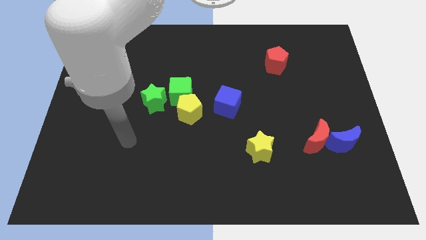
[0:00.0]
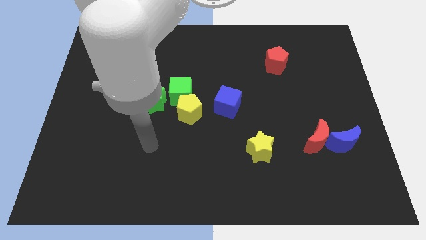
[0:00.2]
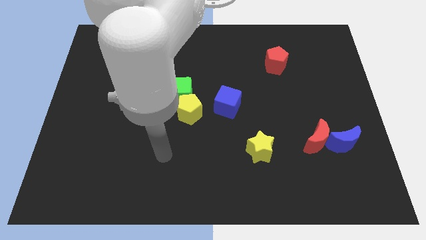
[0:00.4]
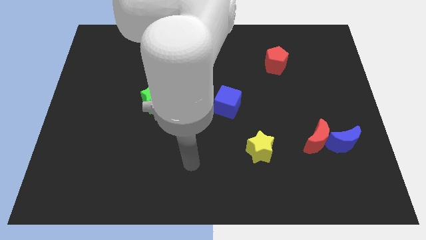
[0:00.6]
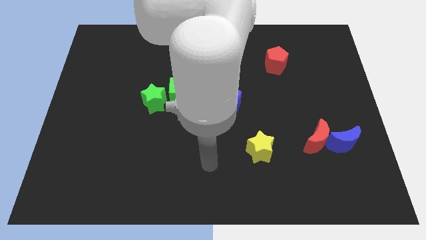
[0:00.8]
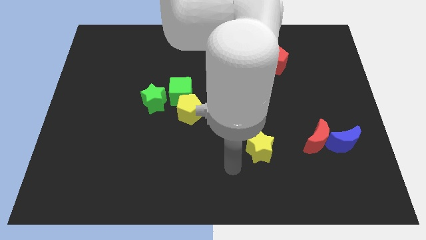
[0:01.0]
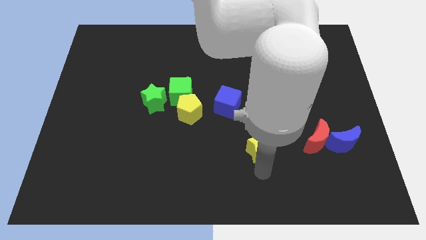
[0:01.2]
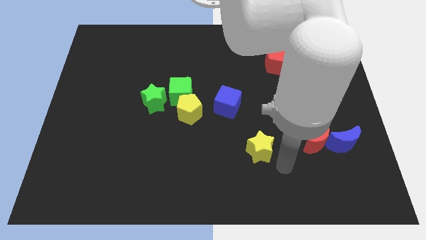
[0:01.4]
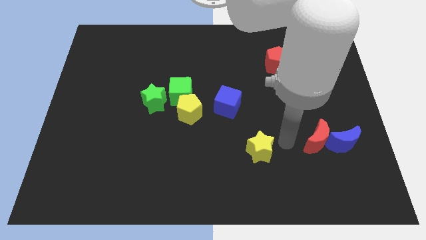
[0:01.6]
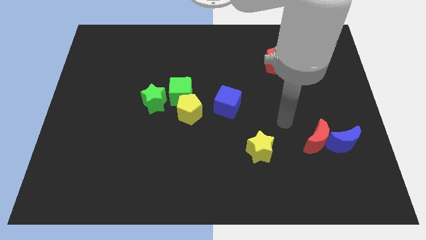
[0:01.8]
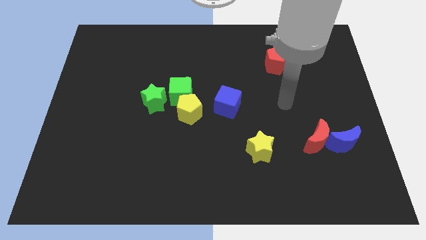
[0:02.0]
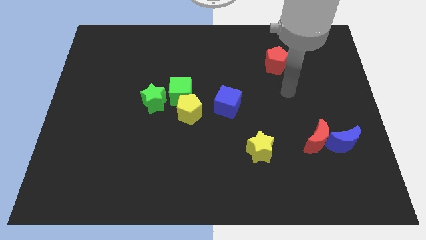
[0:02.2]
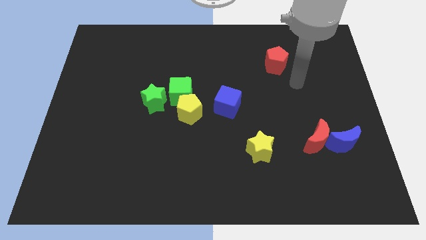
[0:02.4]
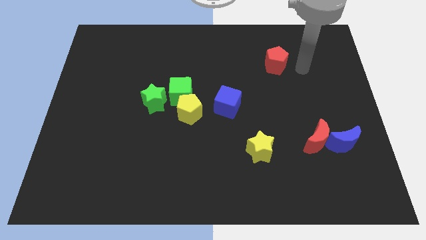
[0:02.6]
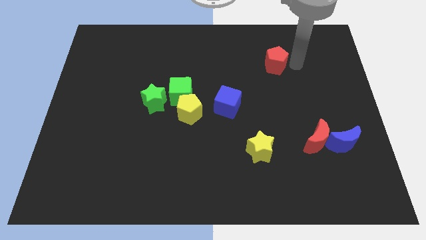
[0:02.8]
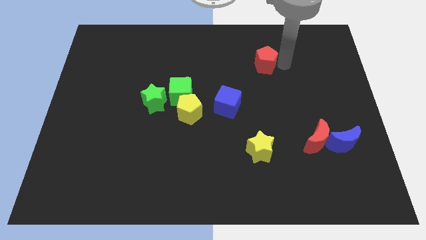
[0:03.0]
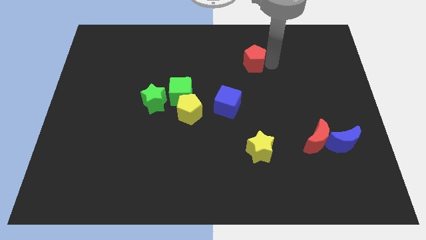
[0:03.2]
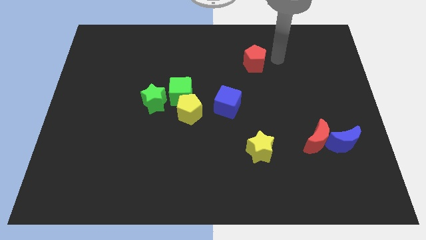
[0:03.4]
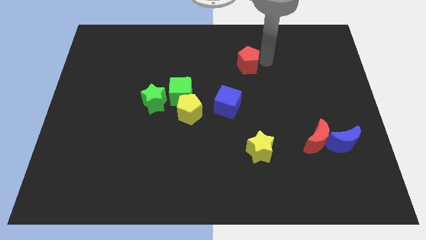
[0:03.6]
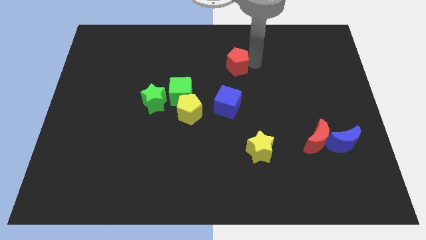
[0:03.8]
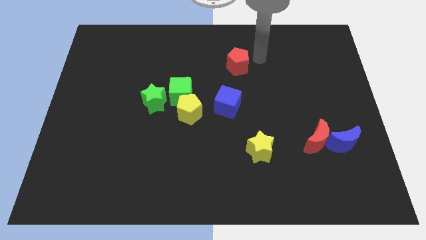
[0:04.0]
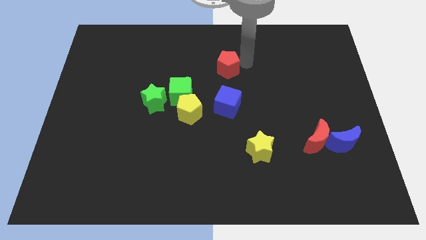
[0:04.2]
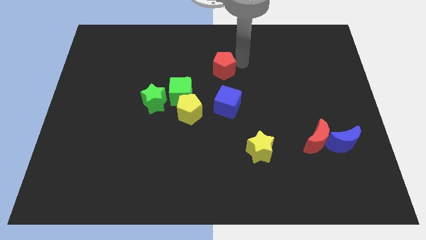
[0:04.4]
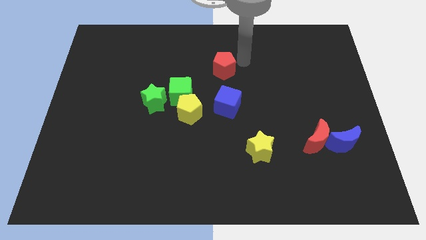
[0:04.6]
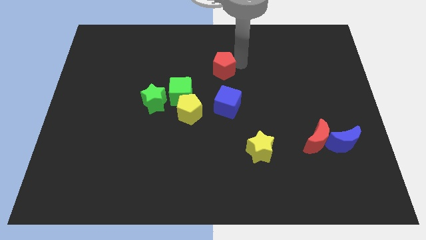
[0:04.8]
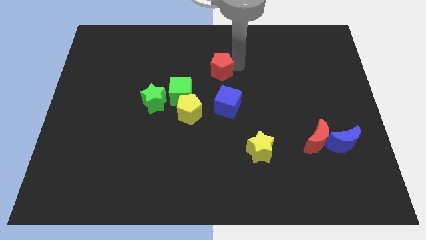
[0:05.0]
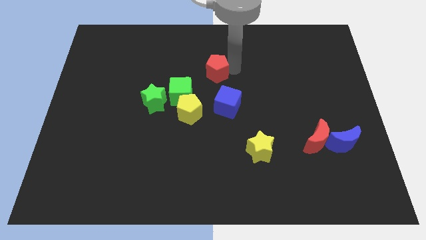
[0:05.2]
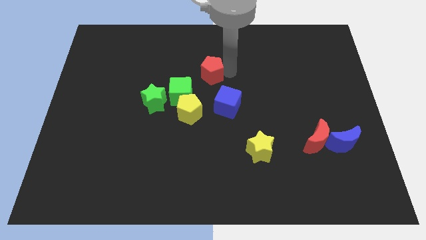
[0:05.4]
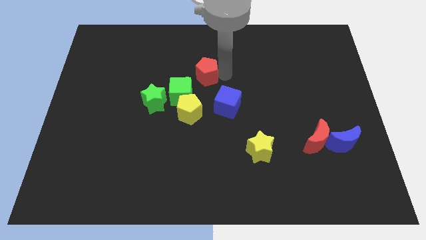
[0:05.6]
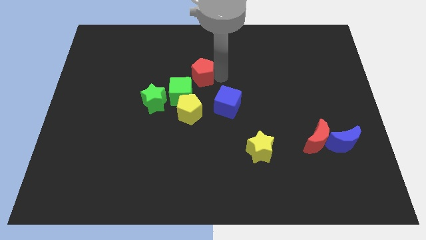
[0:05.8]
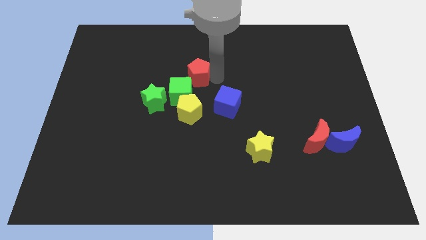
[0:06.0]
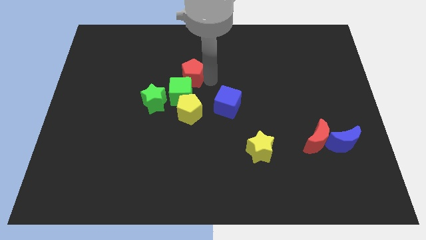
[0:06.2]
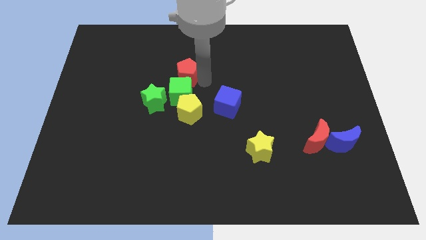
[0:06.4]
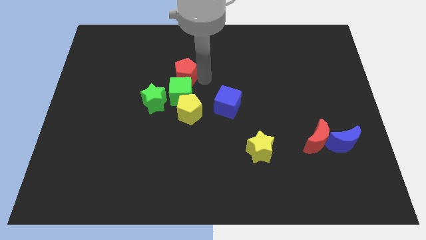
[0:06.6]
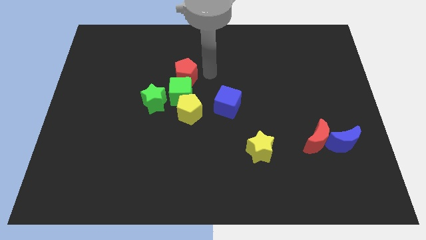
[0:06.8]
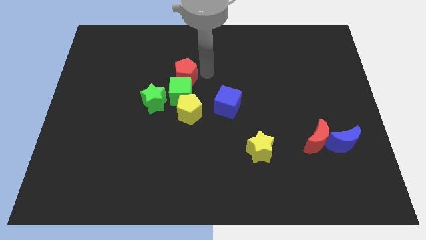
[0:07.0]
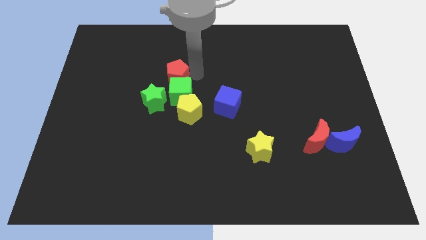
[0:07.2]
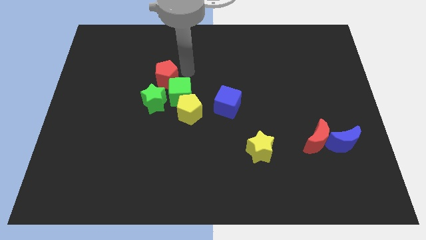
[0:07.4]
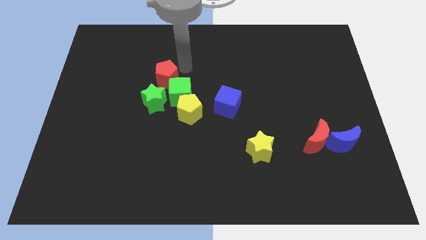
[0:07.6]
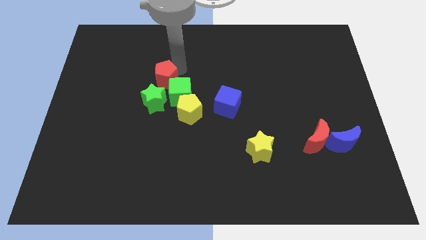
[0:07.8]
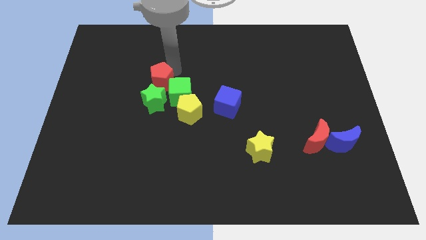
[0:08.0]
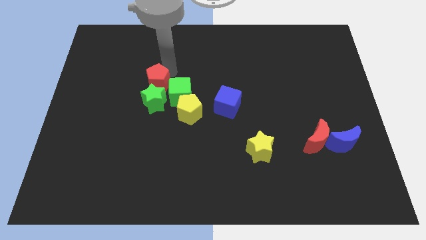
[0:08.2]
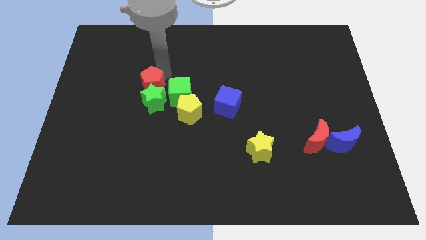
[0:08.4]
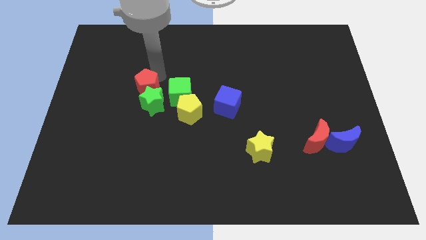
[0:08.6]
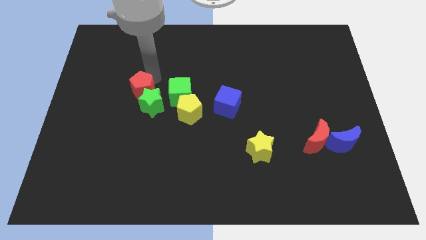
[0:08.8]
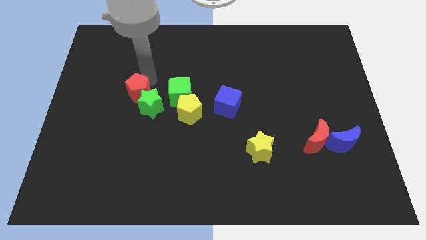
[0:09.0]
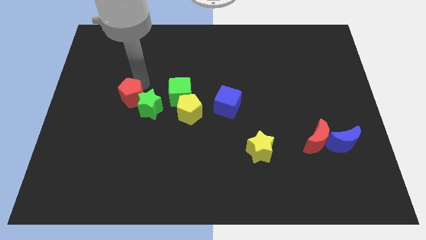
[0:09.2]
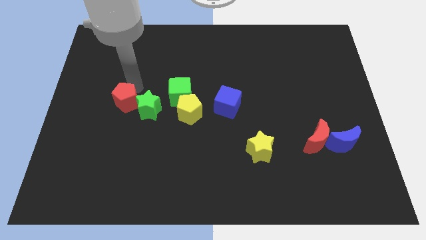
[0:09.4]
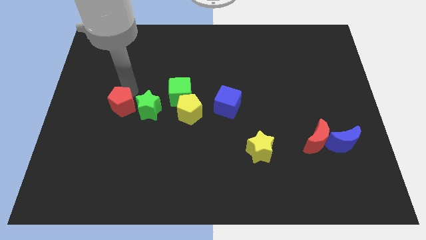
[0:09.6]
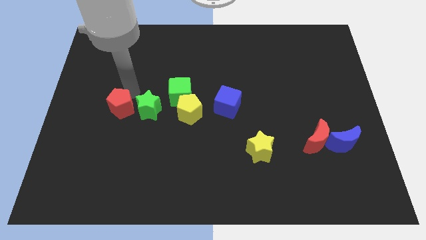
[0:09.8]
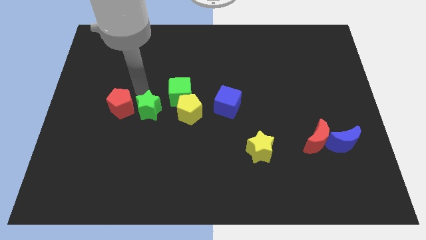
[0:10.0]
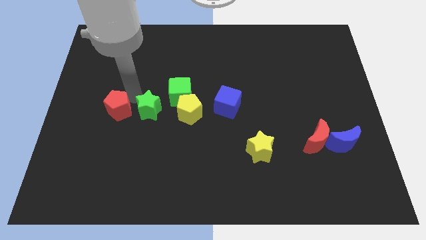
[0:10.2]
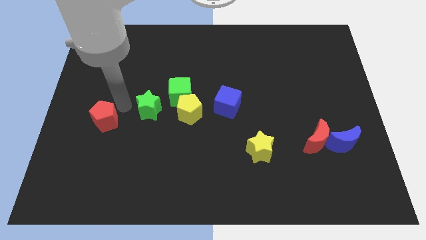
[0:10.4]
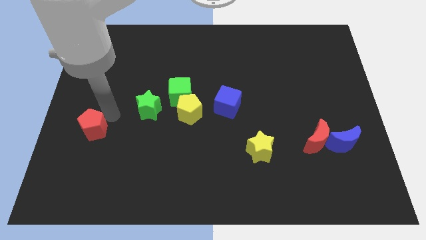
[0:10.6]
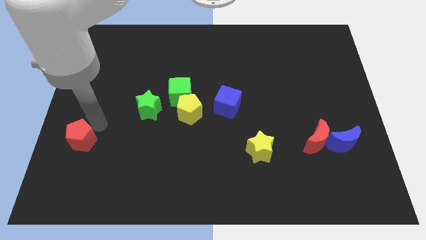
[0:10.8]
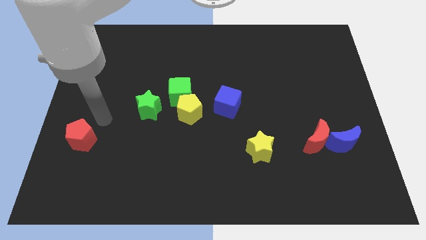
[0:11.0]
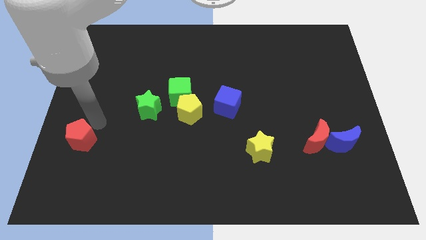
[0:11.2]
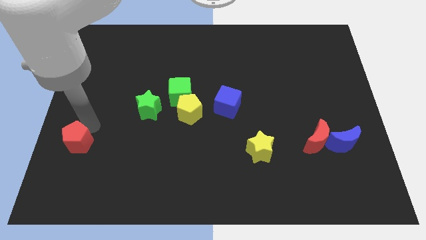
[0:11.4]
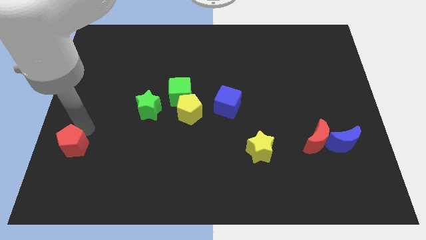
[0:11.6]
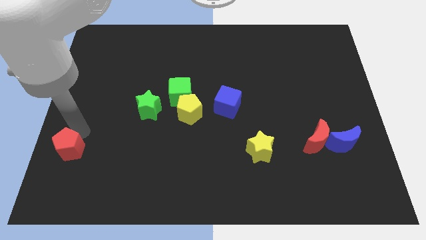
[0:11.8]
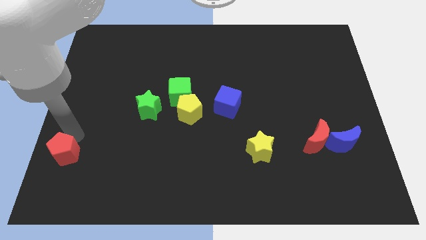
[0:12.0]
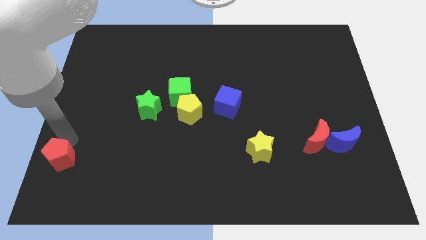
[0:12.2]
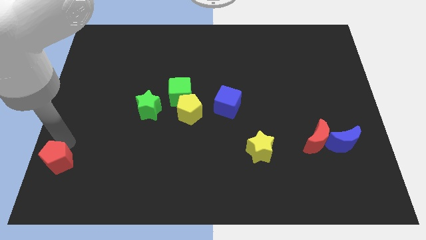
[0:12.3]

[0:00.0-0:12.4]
put the red pentagon to the lower left corner
